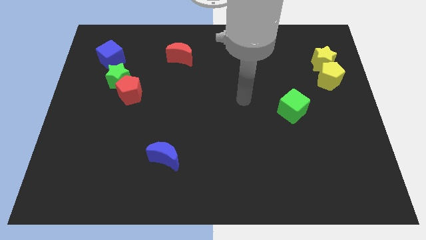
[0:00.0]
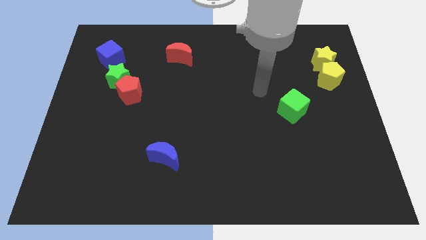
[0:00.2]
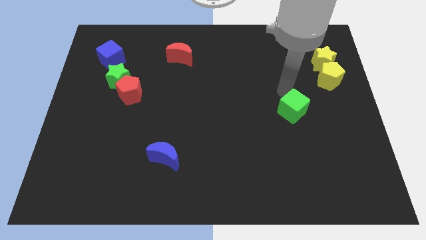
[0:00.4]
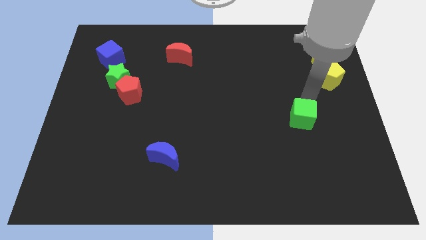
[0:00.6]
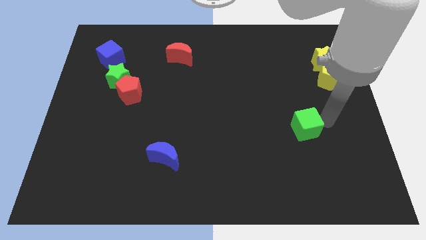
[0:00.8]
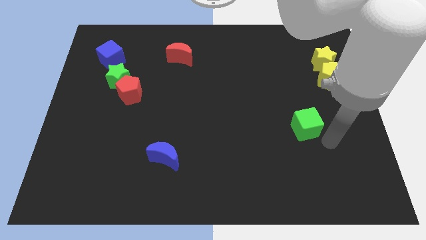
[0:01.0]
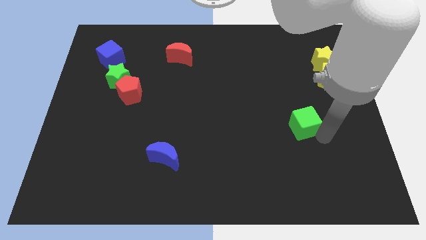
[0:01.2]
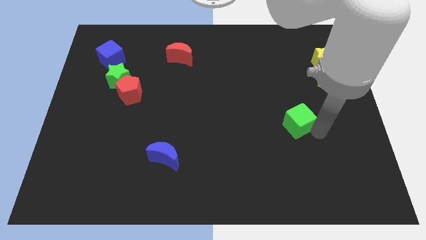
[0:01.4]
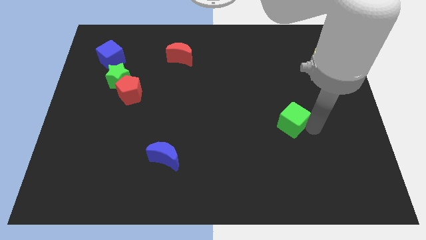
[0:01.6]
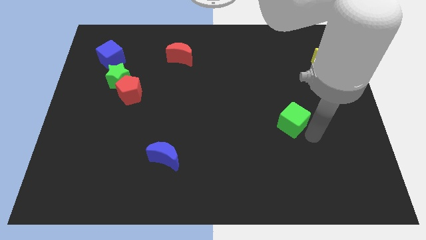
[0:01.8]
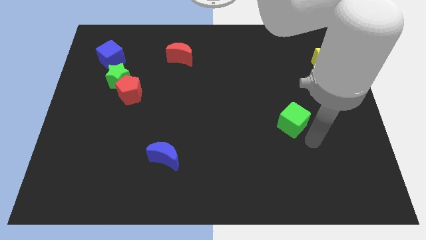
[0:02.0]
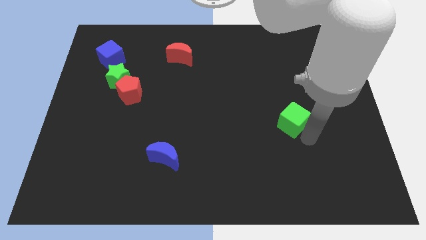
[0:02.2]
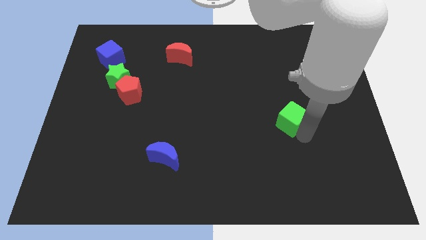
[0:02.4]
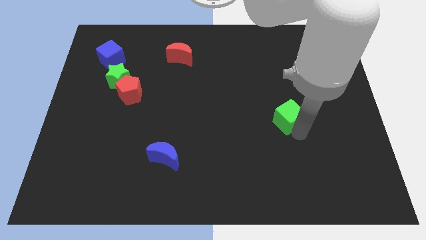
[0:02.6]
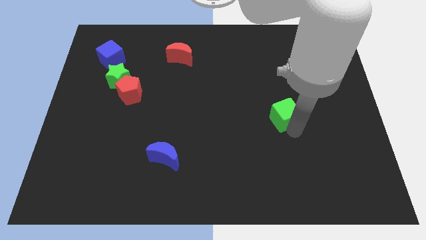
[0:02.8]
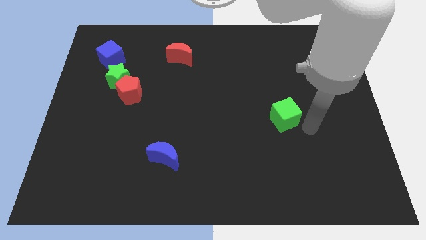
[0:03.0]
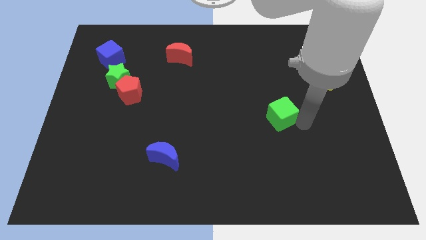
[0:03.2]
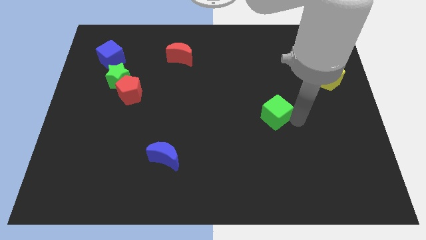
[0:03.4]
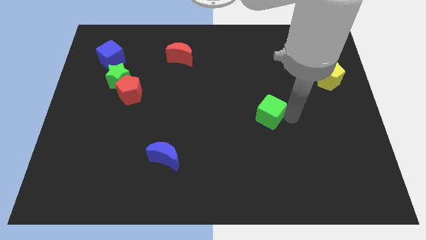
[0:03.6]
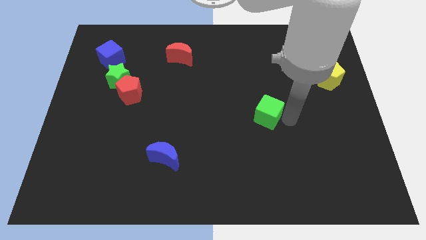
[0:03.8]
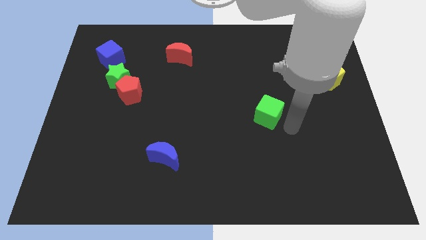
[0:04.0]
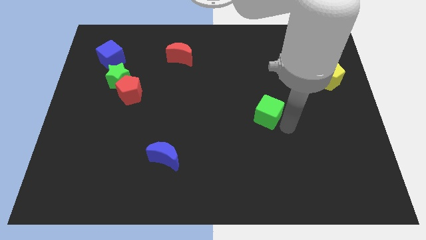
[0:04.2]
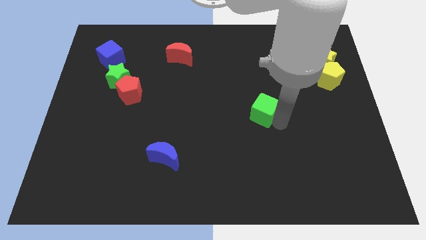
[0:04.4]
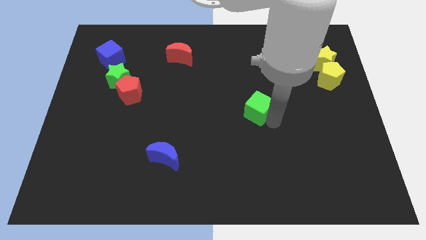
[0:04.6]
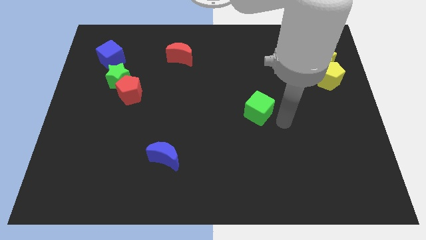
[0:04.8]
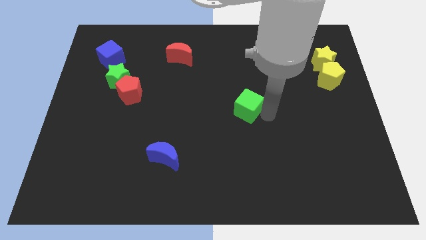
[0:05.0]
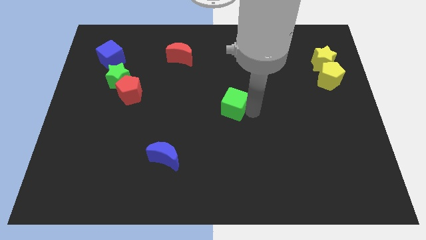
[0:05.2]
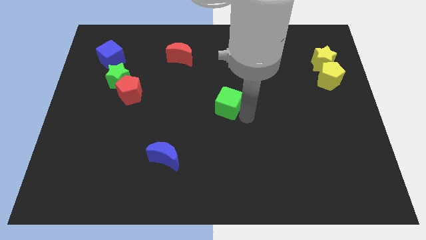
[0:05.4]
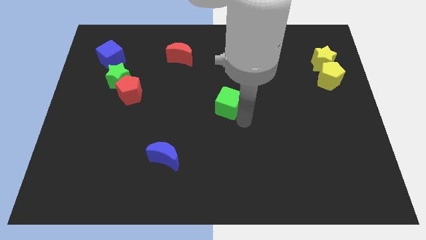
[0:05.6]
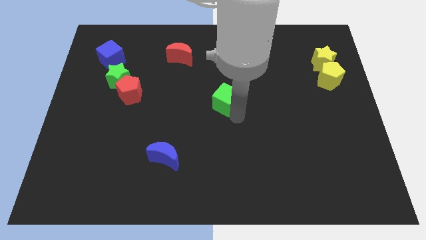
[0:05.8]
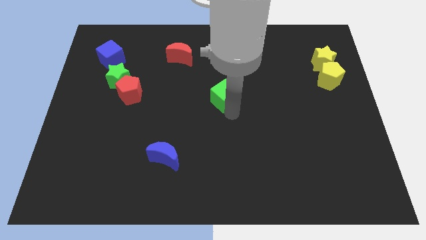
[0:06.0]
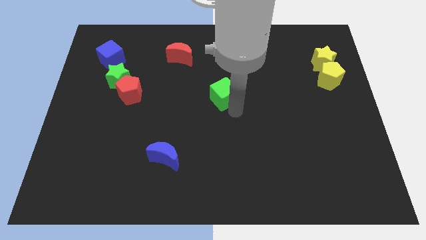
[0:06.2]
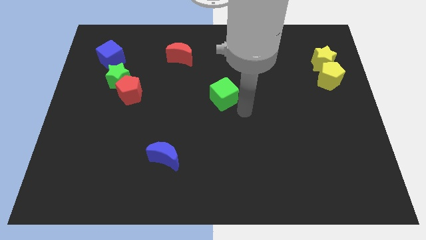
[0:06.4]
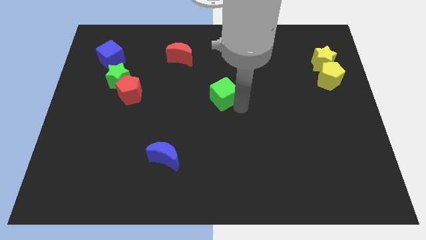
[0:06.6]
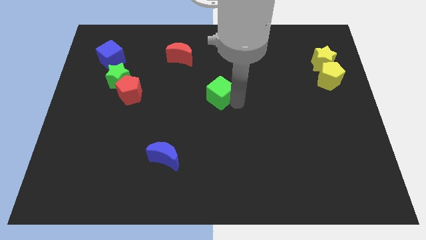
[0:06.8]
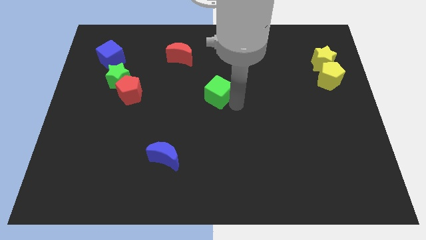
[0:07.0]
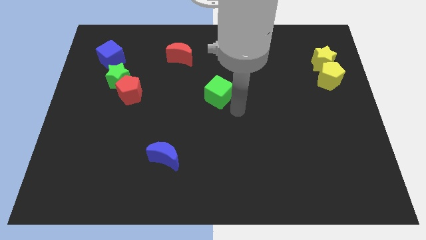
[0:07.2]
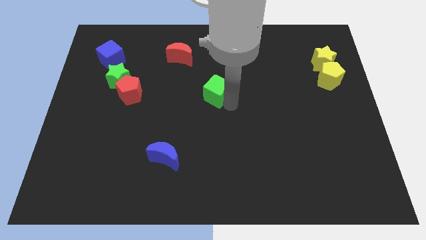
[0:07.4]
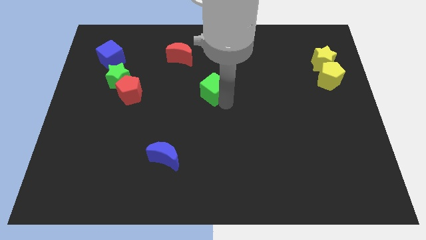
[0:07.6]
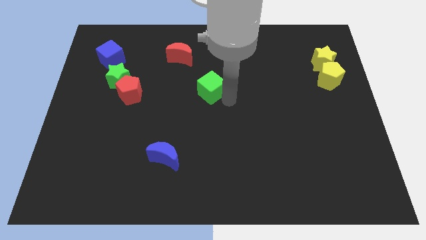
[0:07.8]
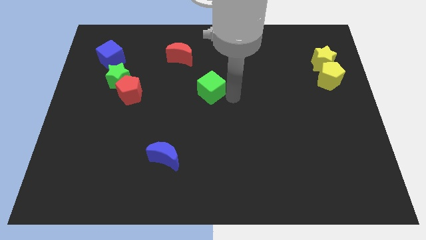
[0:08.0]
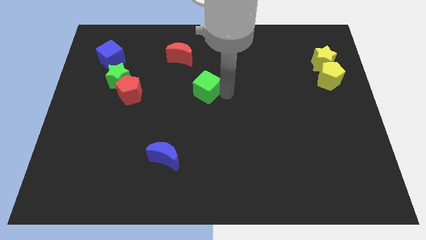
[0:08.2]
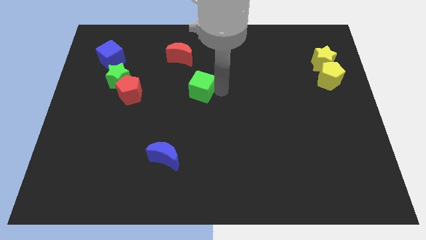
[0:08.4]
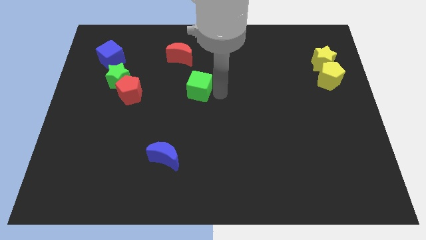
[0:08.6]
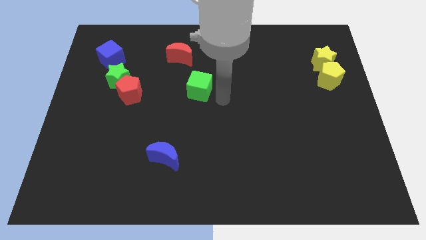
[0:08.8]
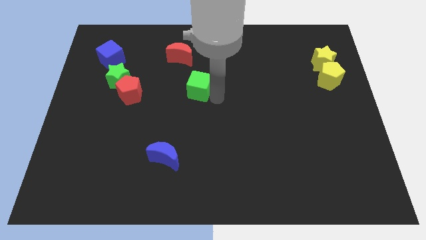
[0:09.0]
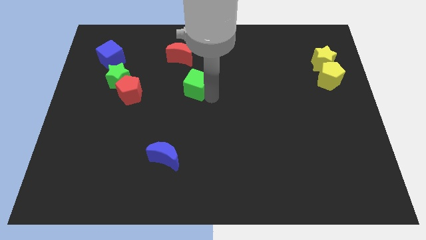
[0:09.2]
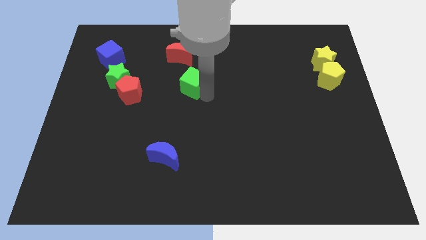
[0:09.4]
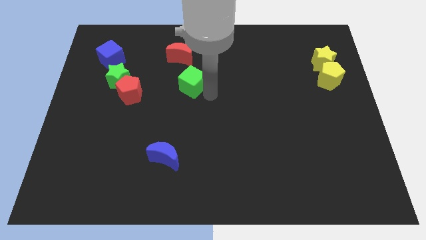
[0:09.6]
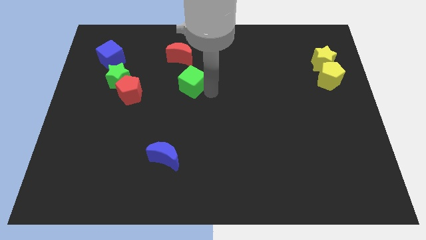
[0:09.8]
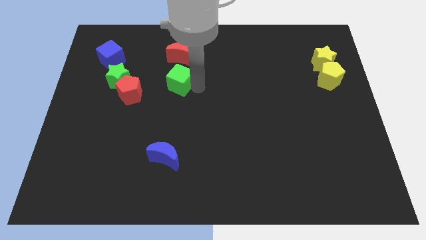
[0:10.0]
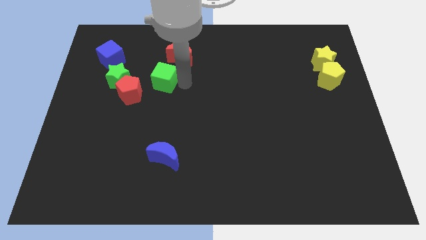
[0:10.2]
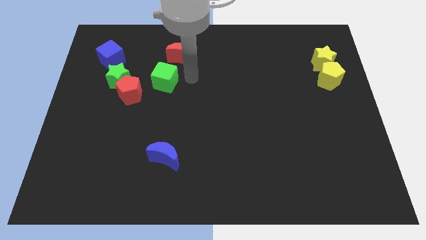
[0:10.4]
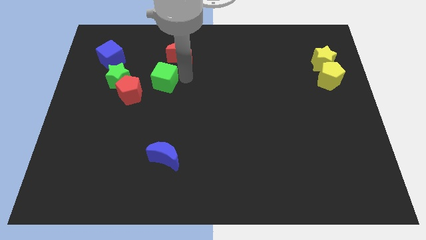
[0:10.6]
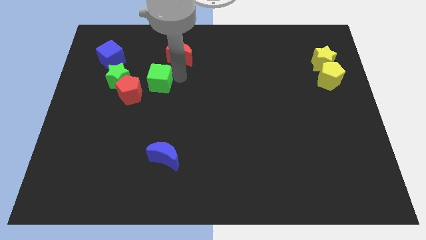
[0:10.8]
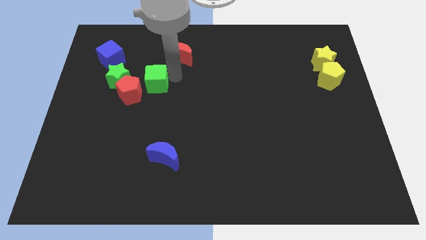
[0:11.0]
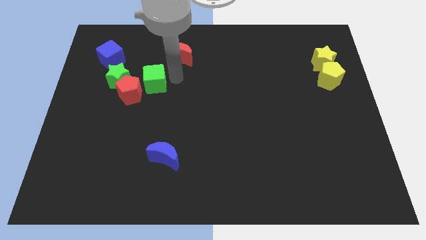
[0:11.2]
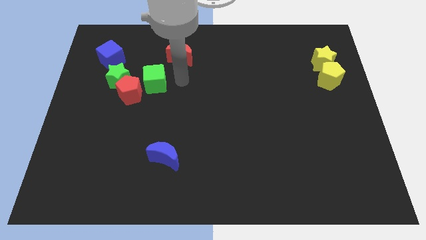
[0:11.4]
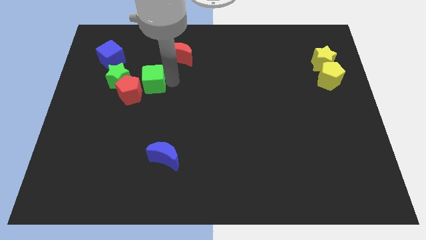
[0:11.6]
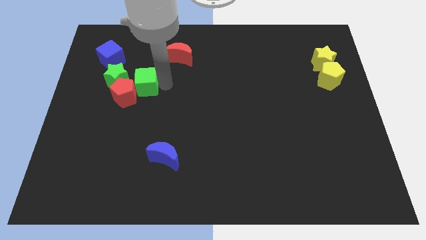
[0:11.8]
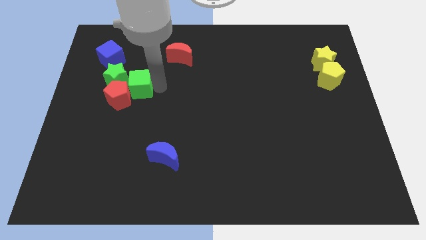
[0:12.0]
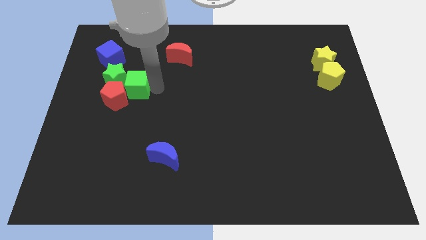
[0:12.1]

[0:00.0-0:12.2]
slide the green cube to the green star
